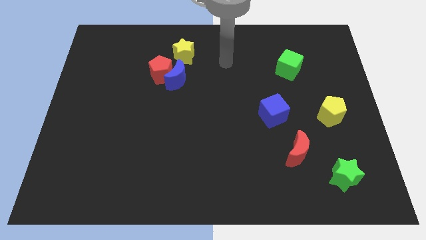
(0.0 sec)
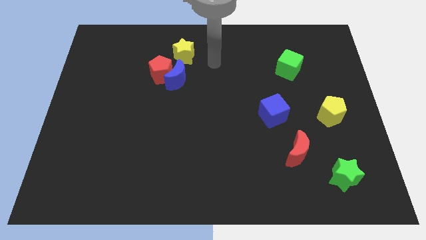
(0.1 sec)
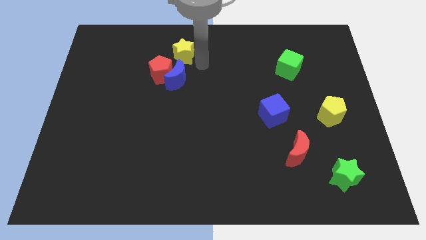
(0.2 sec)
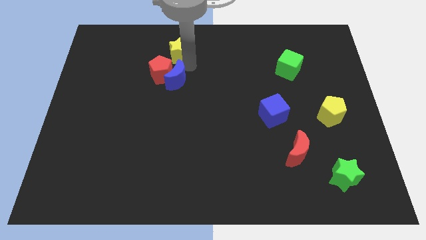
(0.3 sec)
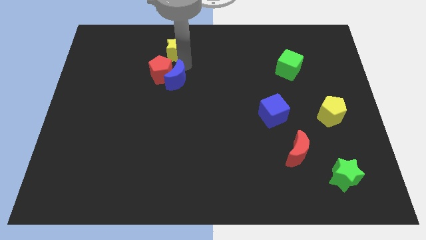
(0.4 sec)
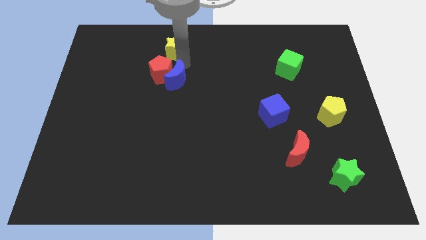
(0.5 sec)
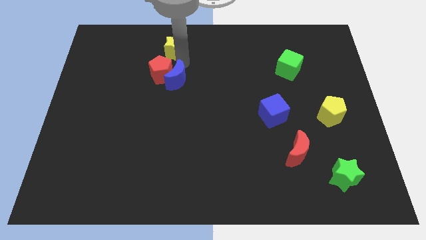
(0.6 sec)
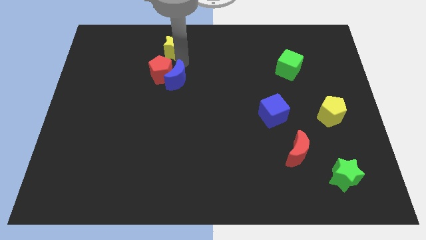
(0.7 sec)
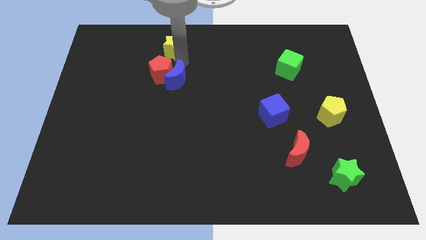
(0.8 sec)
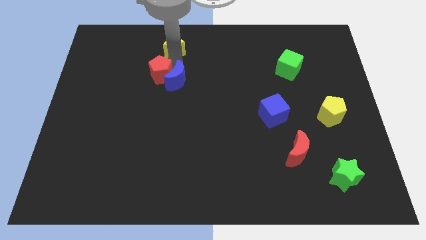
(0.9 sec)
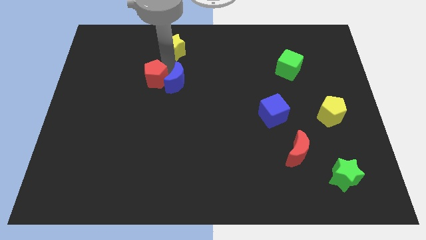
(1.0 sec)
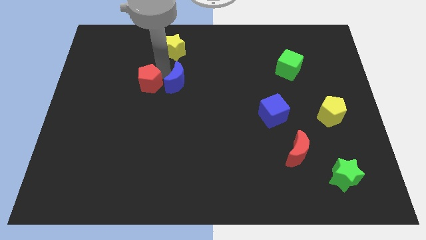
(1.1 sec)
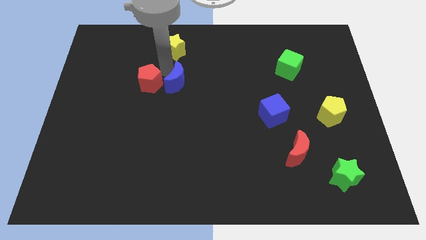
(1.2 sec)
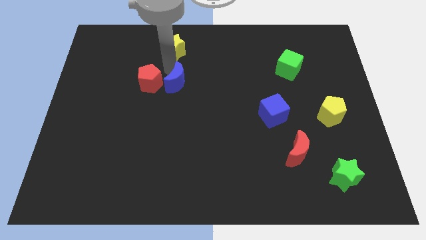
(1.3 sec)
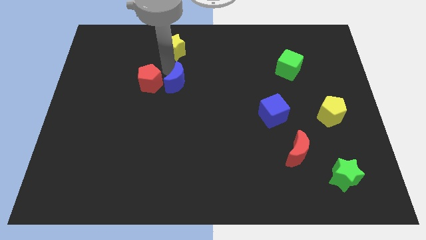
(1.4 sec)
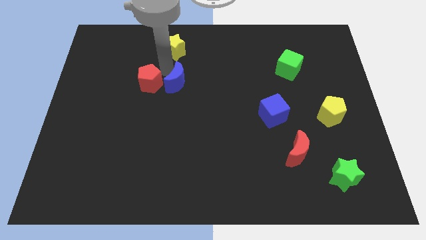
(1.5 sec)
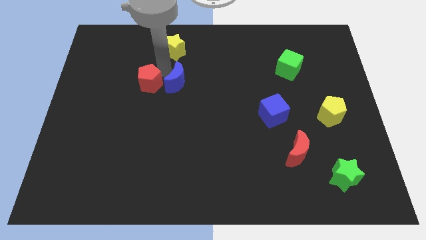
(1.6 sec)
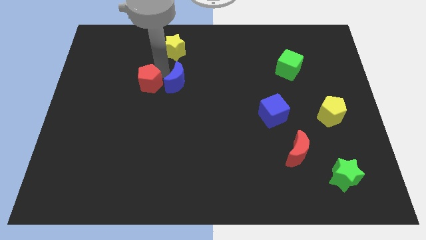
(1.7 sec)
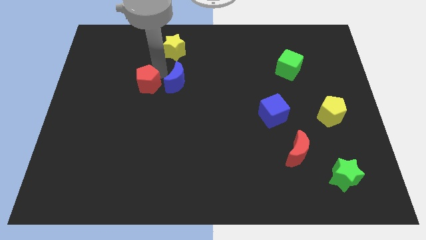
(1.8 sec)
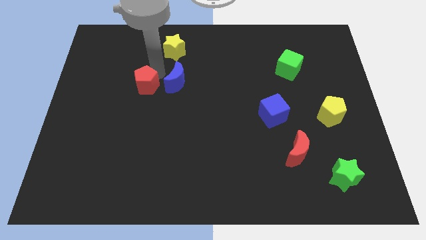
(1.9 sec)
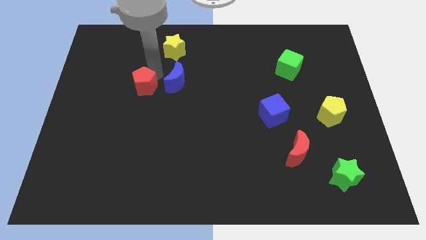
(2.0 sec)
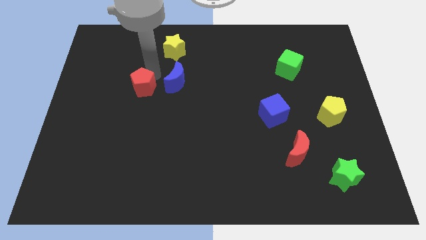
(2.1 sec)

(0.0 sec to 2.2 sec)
separate the red pentagon from the blue moon and yellow star

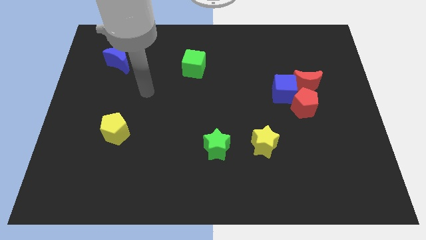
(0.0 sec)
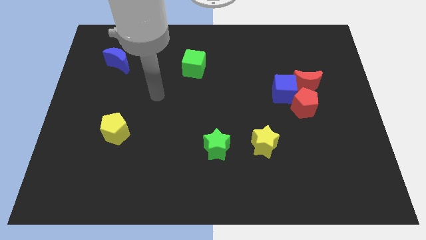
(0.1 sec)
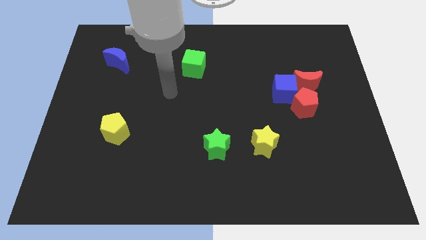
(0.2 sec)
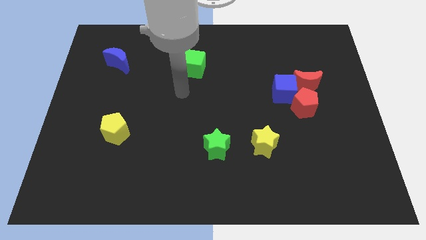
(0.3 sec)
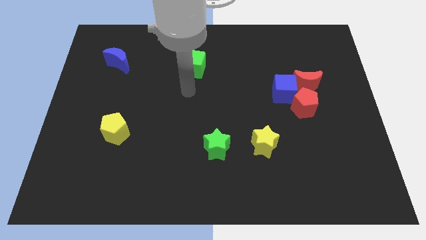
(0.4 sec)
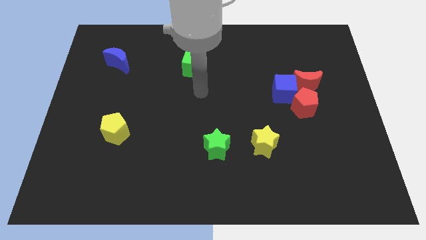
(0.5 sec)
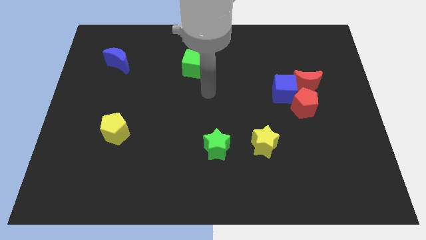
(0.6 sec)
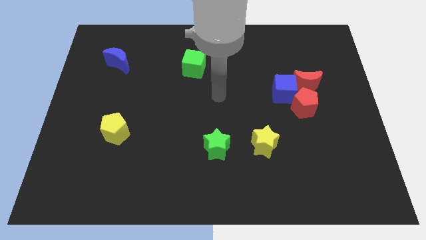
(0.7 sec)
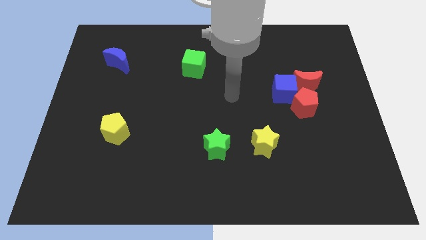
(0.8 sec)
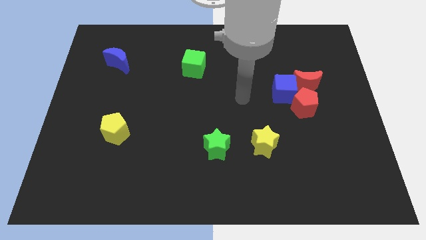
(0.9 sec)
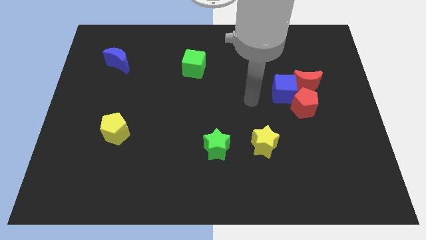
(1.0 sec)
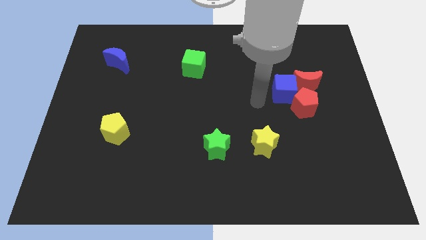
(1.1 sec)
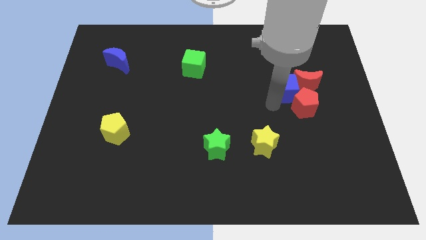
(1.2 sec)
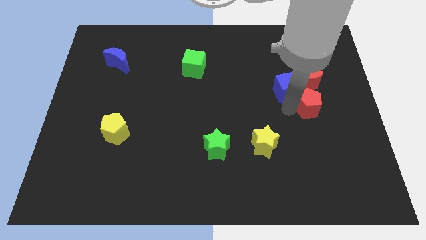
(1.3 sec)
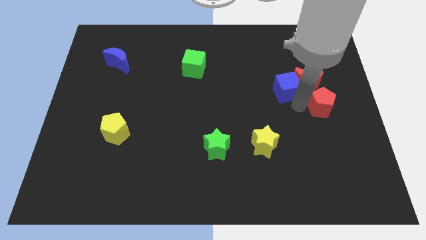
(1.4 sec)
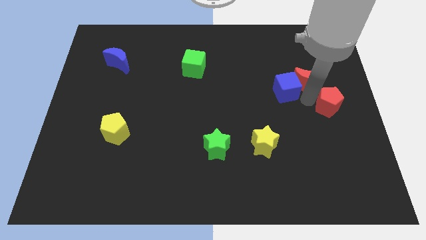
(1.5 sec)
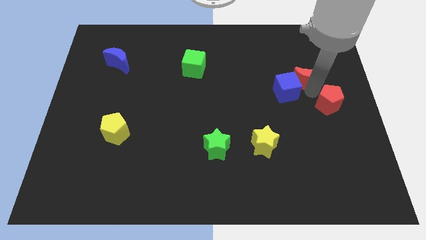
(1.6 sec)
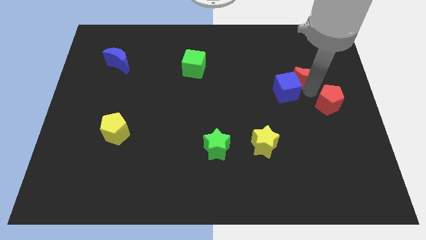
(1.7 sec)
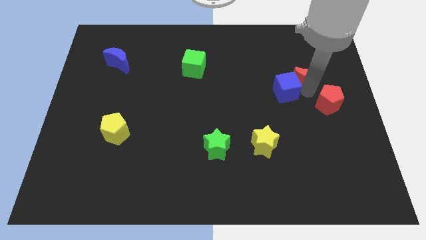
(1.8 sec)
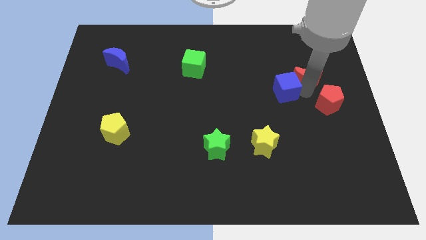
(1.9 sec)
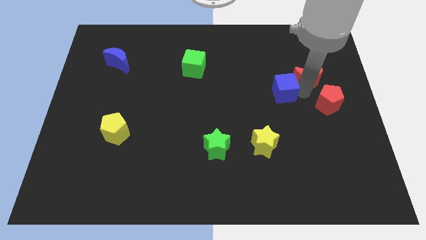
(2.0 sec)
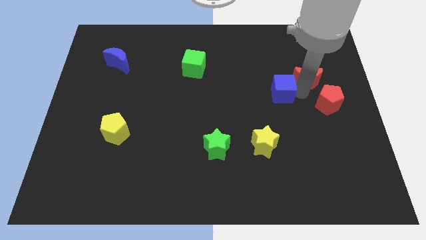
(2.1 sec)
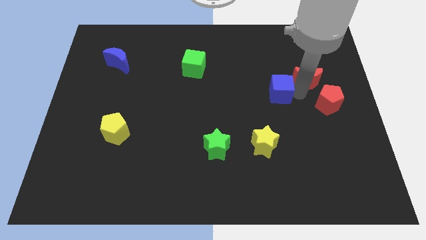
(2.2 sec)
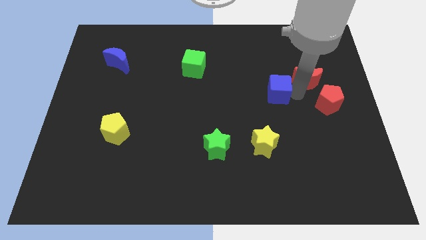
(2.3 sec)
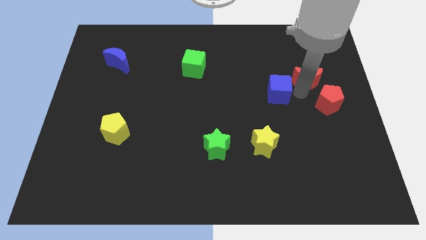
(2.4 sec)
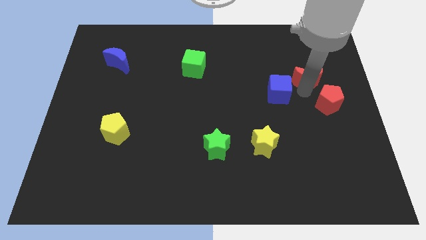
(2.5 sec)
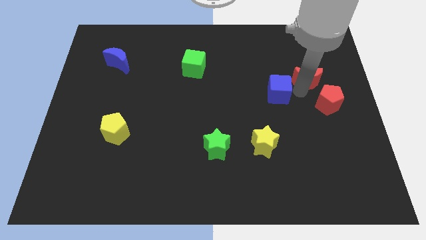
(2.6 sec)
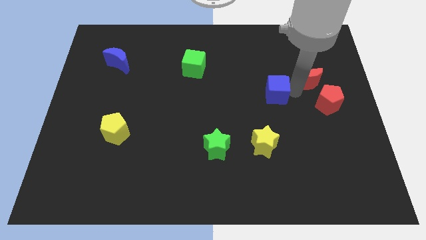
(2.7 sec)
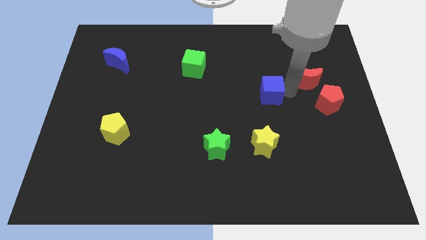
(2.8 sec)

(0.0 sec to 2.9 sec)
move the blue cube away from the red pentagon and red moon

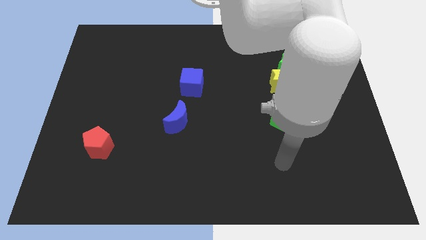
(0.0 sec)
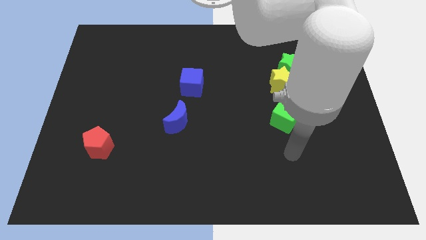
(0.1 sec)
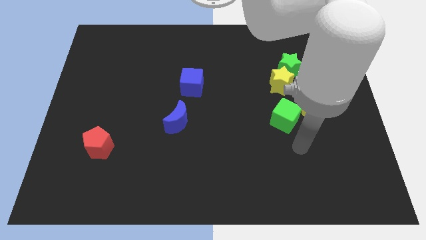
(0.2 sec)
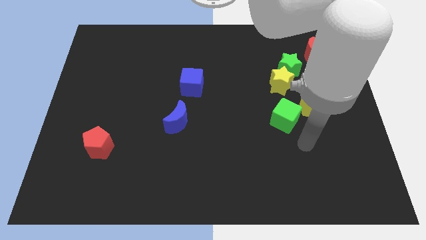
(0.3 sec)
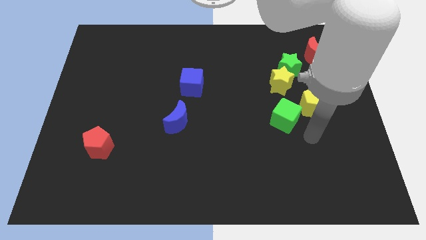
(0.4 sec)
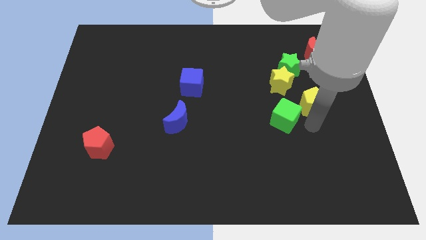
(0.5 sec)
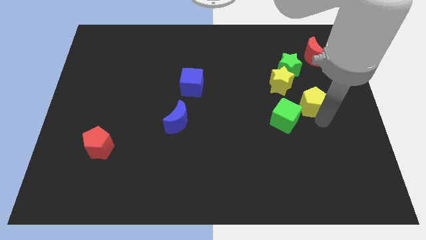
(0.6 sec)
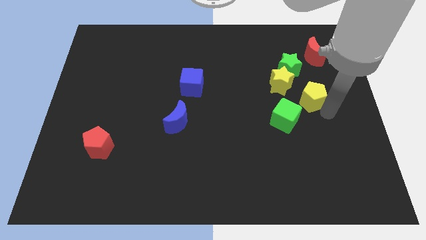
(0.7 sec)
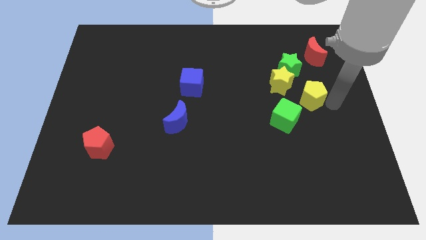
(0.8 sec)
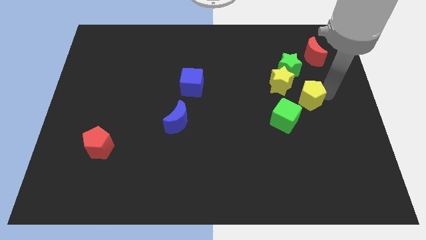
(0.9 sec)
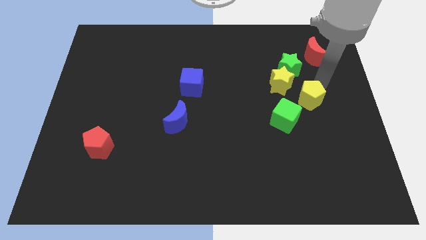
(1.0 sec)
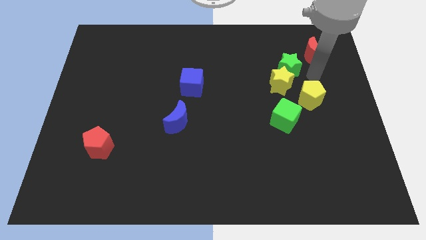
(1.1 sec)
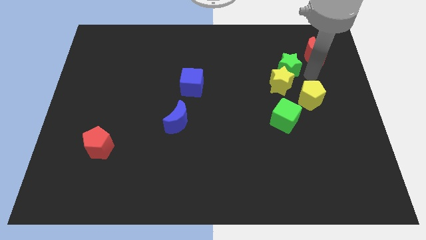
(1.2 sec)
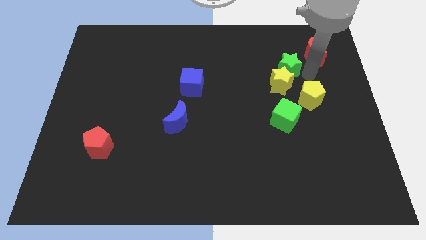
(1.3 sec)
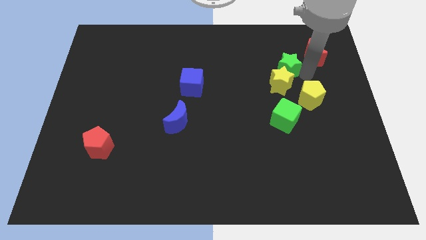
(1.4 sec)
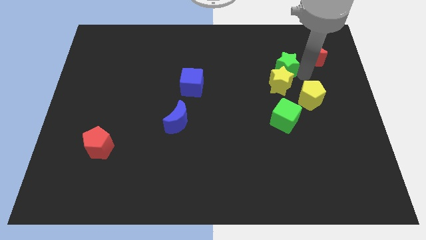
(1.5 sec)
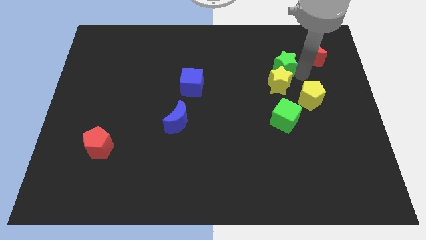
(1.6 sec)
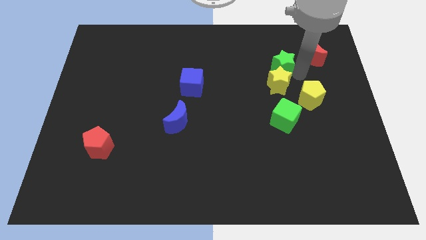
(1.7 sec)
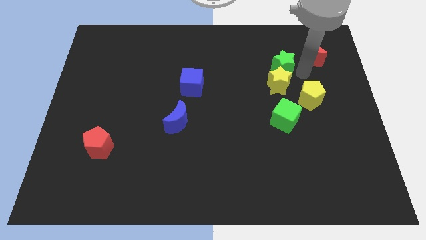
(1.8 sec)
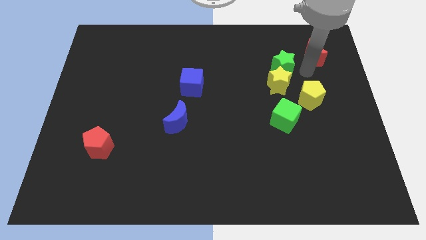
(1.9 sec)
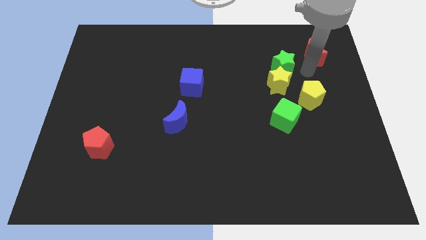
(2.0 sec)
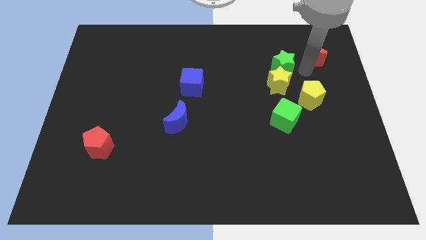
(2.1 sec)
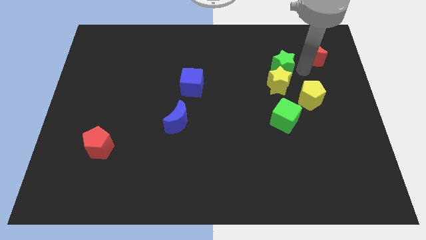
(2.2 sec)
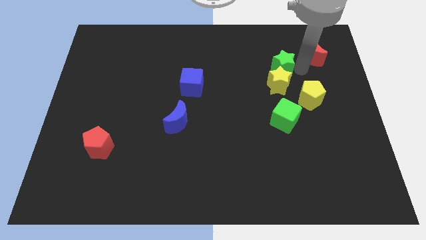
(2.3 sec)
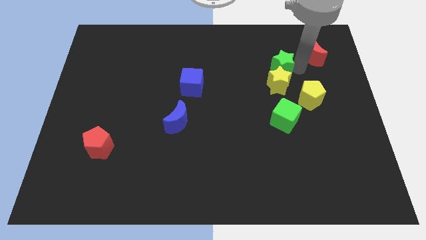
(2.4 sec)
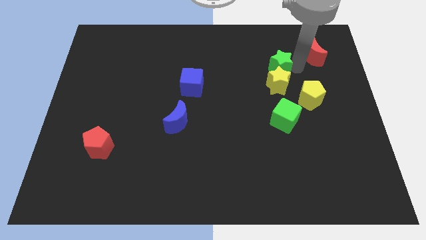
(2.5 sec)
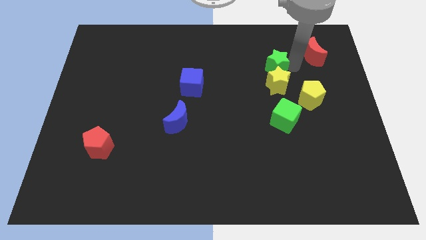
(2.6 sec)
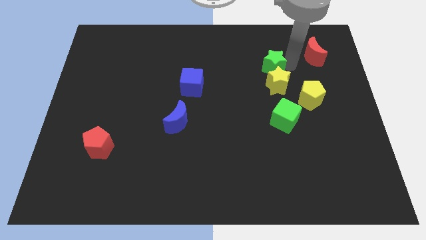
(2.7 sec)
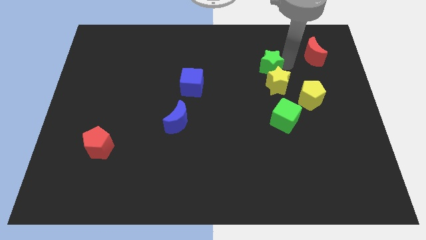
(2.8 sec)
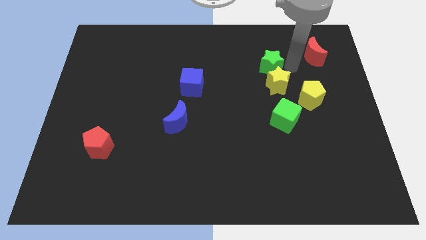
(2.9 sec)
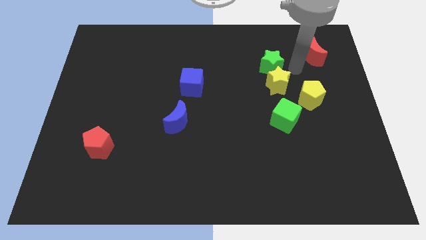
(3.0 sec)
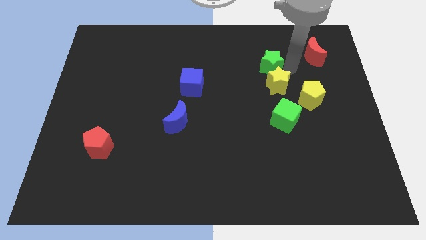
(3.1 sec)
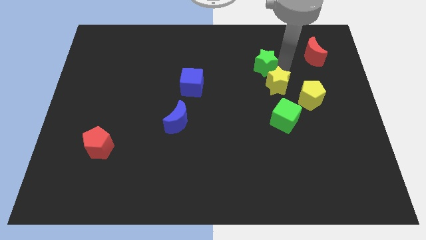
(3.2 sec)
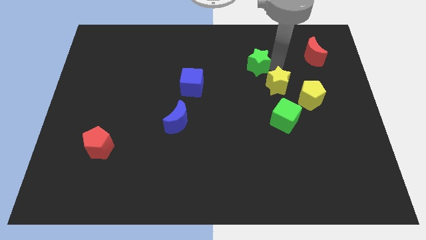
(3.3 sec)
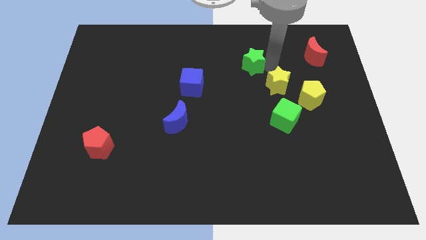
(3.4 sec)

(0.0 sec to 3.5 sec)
move the green star away from the yellow star and red moon

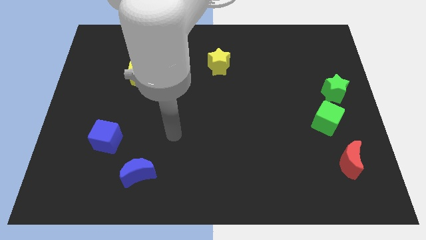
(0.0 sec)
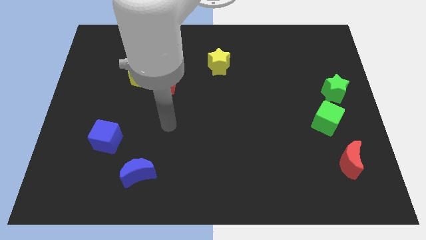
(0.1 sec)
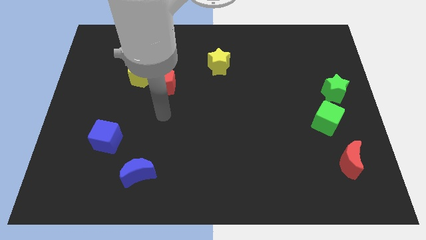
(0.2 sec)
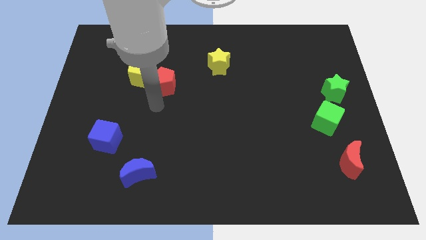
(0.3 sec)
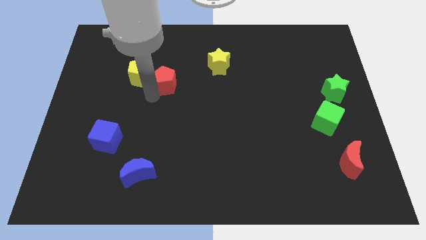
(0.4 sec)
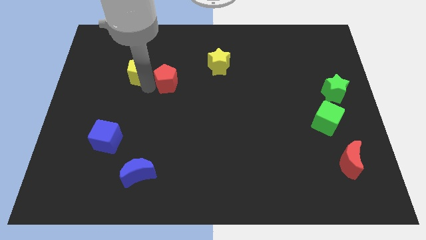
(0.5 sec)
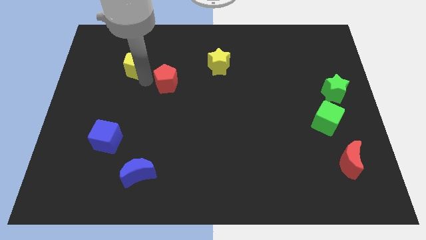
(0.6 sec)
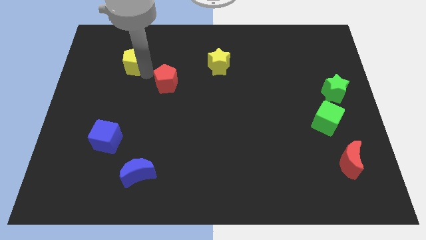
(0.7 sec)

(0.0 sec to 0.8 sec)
pull the red pentagon apart from the yellow pentagon
